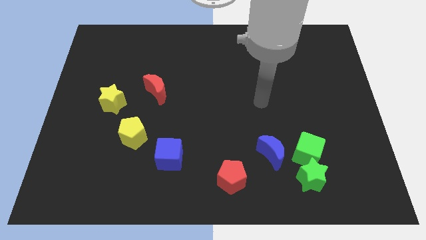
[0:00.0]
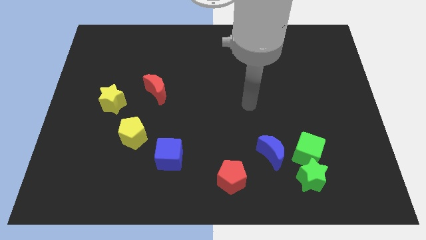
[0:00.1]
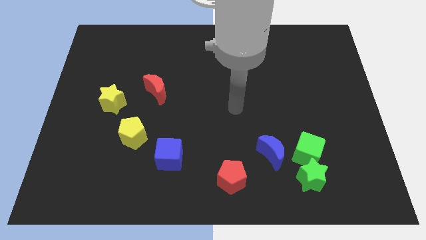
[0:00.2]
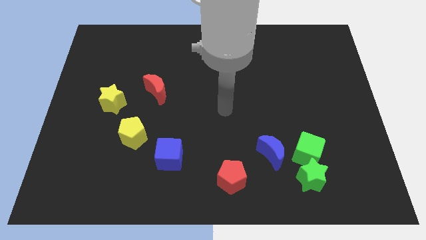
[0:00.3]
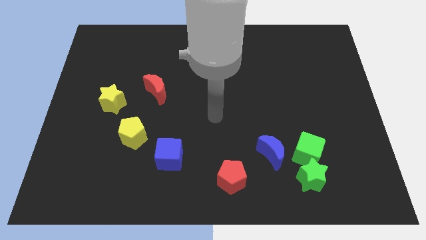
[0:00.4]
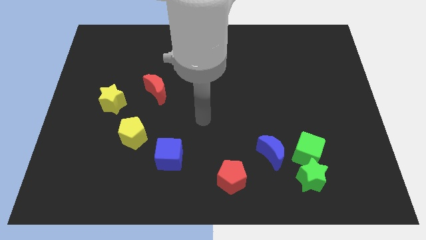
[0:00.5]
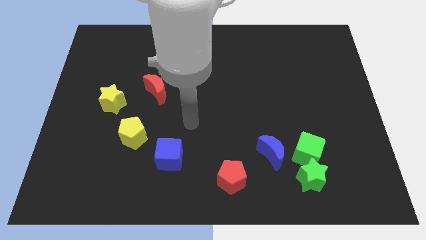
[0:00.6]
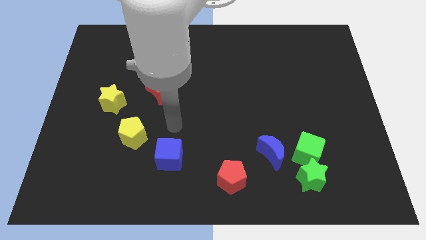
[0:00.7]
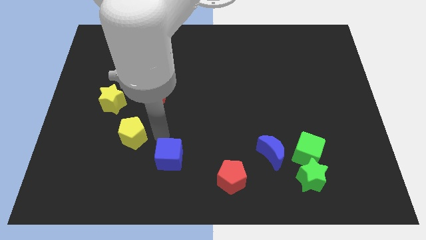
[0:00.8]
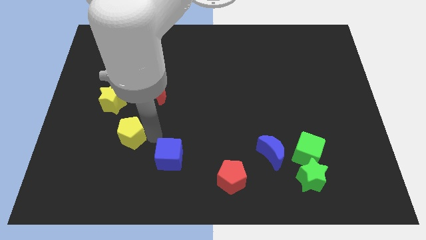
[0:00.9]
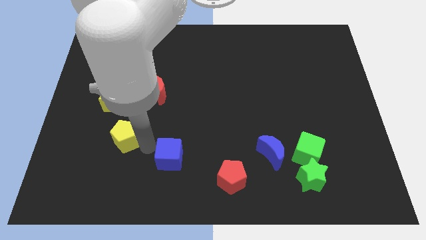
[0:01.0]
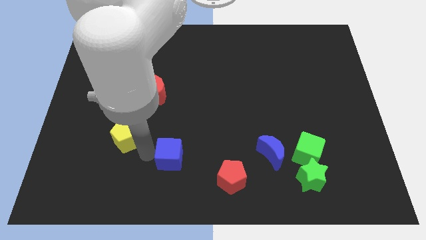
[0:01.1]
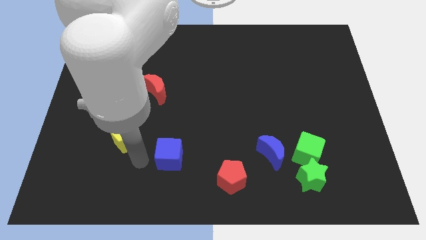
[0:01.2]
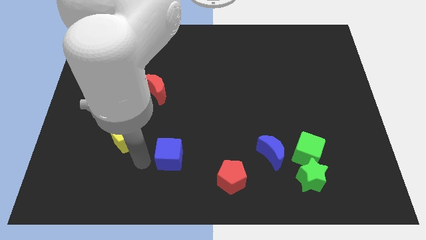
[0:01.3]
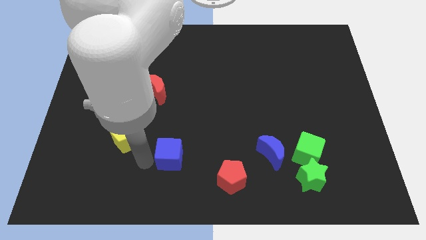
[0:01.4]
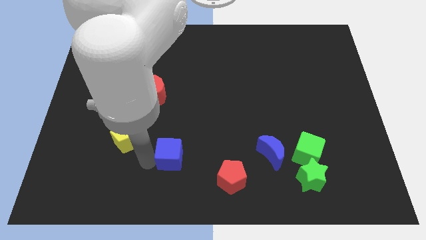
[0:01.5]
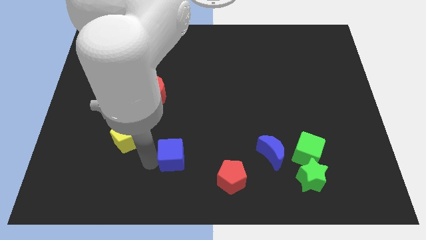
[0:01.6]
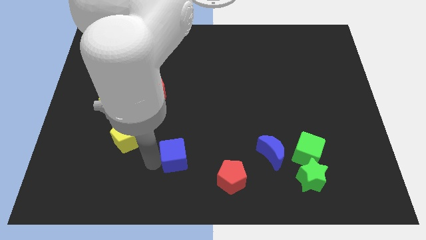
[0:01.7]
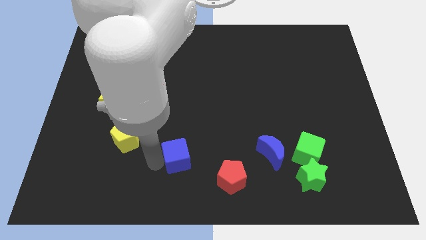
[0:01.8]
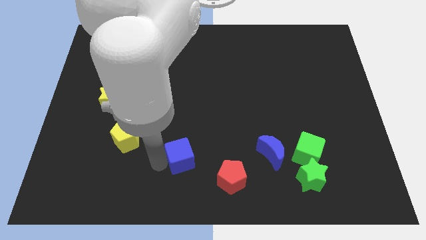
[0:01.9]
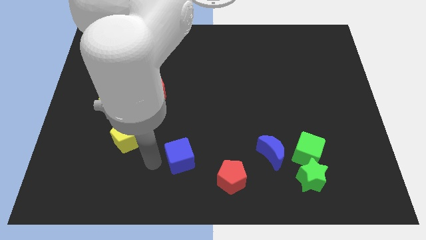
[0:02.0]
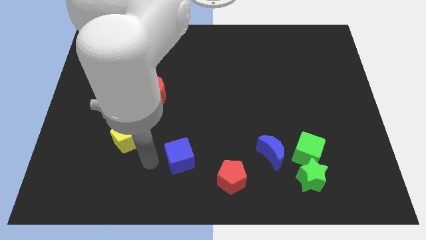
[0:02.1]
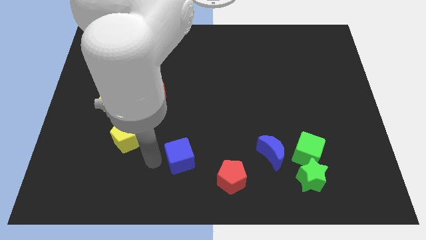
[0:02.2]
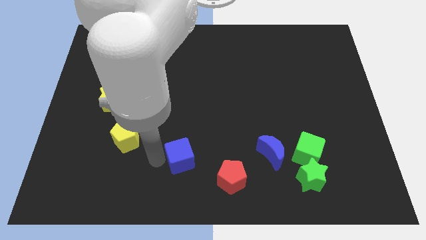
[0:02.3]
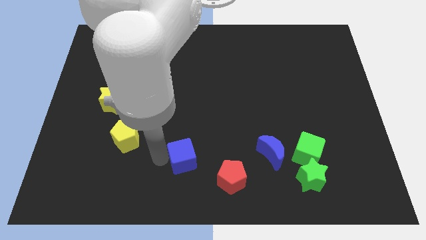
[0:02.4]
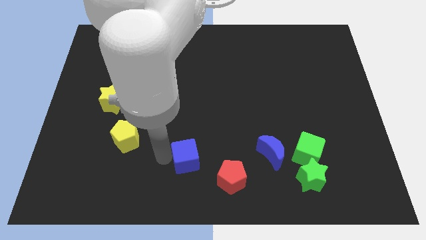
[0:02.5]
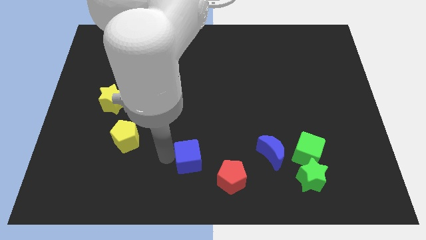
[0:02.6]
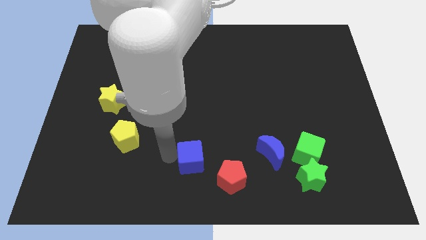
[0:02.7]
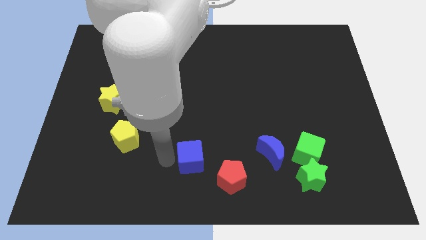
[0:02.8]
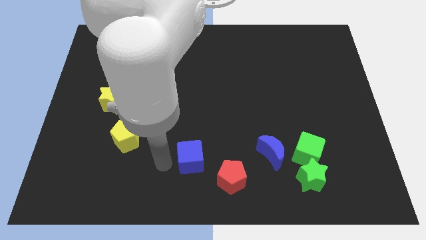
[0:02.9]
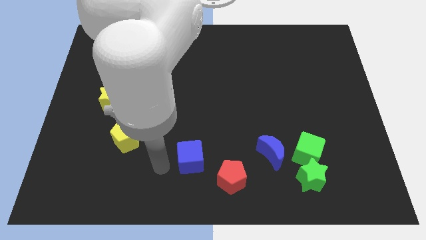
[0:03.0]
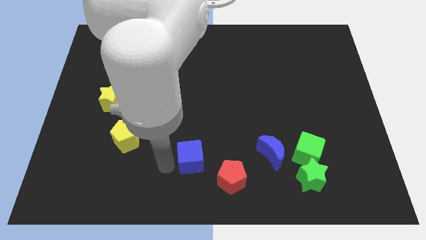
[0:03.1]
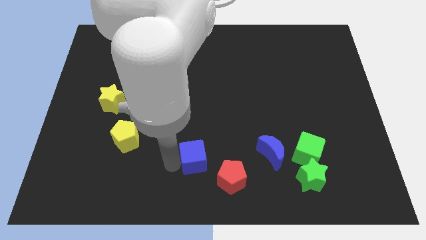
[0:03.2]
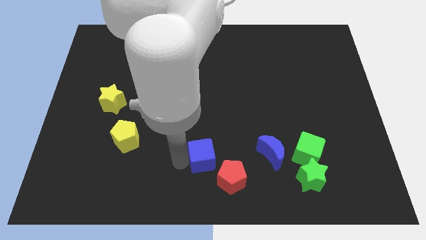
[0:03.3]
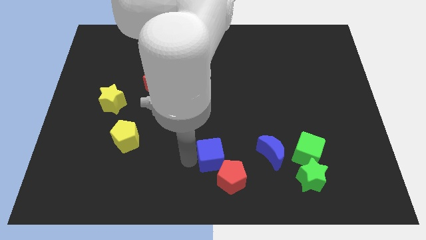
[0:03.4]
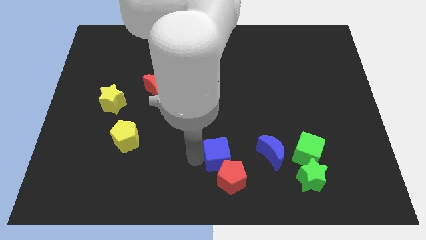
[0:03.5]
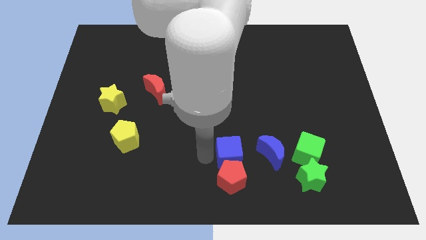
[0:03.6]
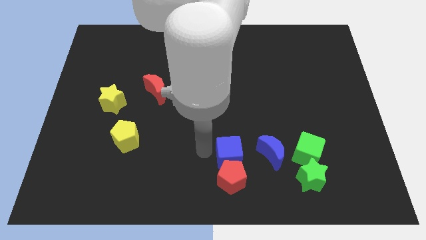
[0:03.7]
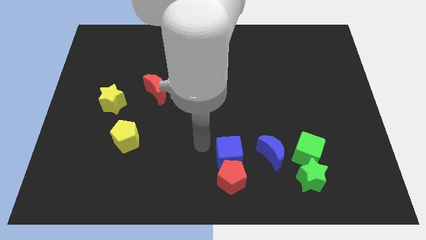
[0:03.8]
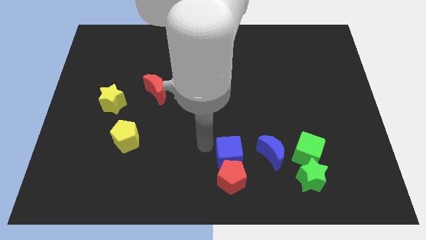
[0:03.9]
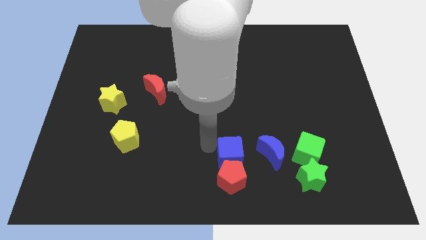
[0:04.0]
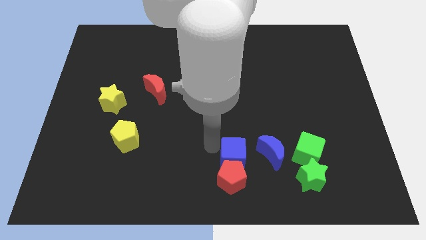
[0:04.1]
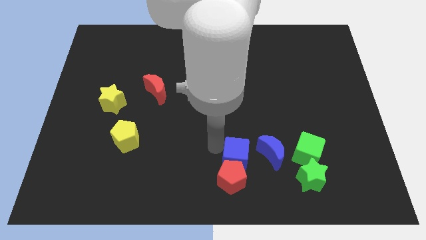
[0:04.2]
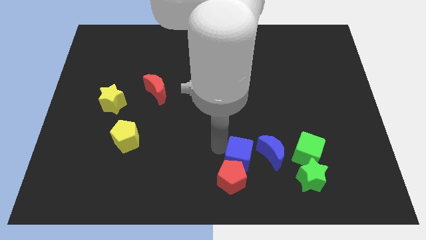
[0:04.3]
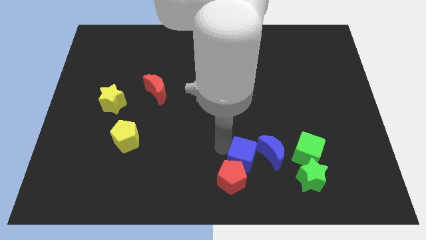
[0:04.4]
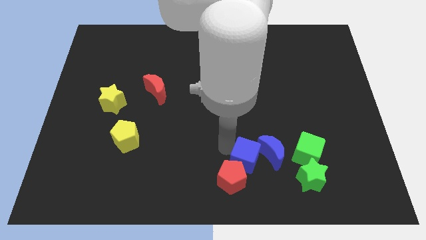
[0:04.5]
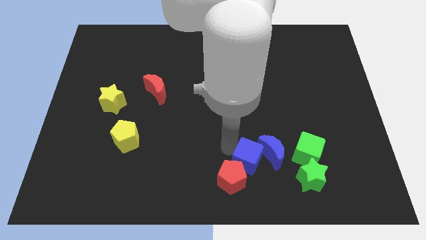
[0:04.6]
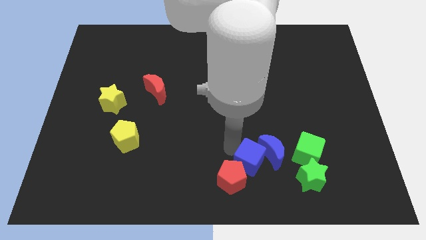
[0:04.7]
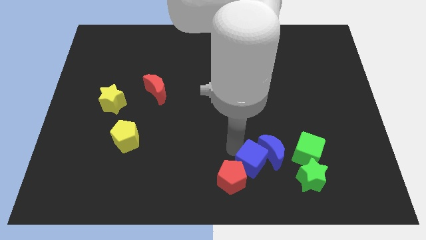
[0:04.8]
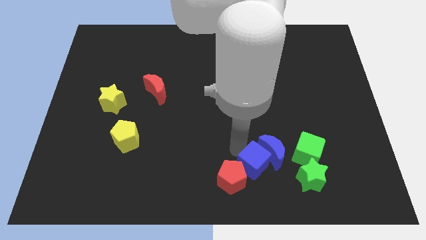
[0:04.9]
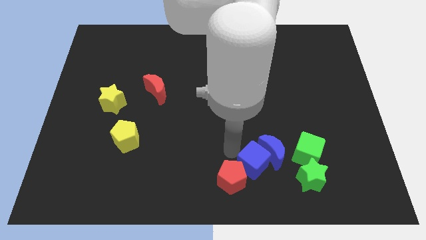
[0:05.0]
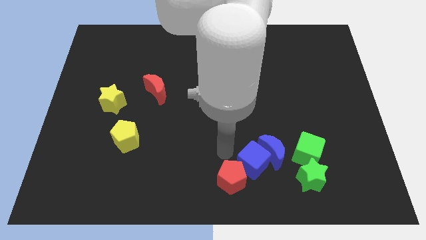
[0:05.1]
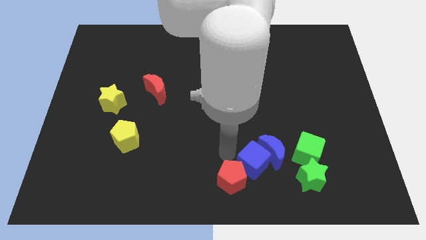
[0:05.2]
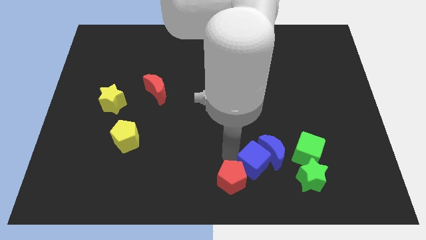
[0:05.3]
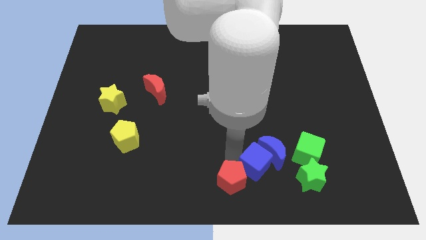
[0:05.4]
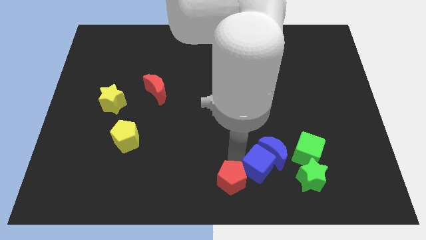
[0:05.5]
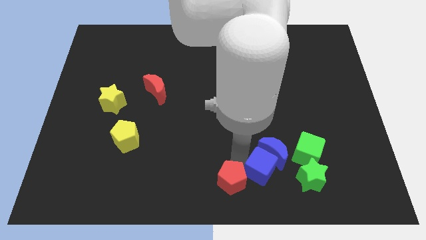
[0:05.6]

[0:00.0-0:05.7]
move the blue cube to the bottom left of the green cube

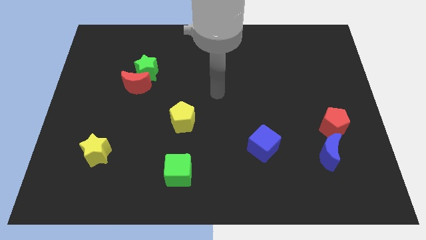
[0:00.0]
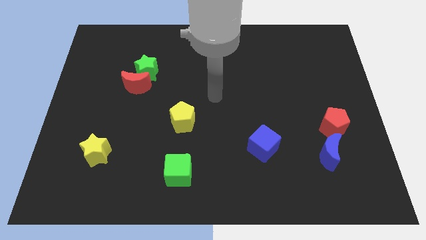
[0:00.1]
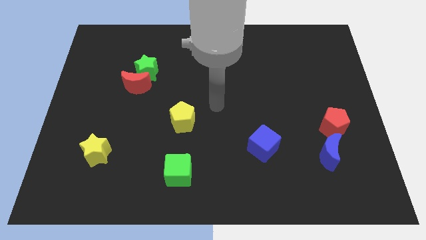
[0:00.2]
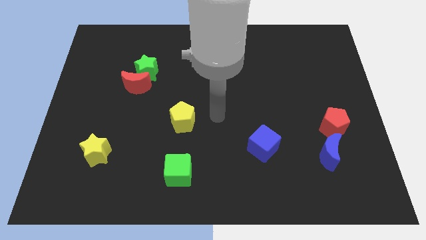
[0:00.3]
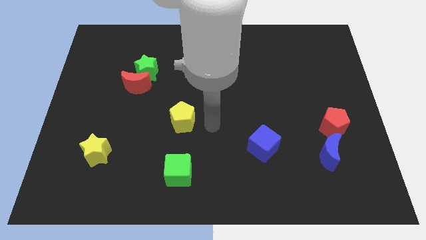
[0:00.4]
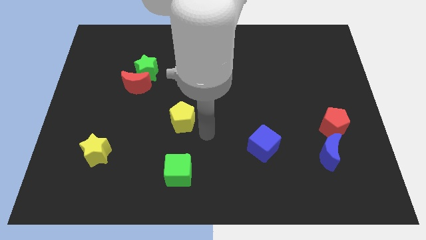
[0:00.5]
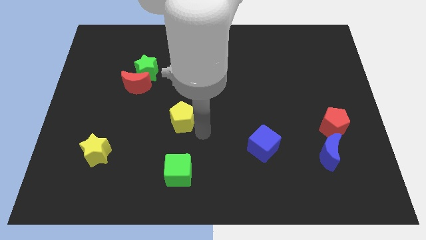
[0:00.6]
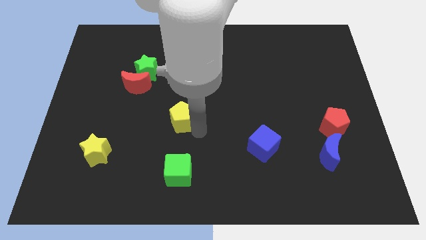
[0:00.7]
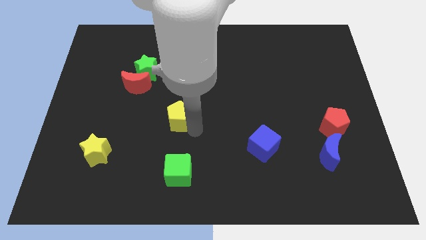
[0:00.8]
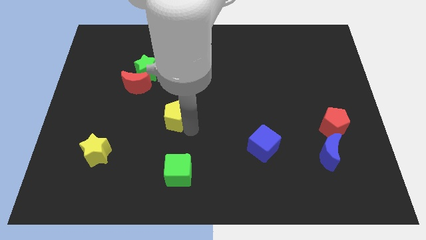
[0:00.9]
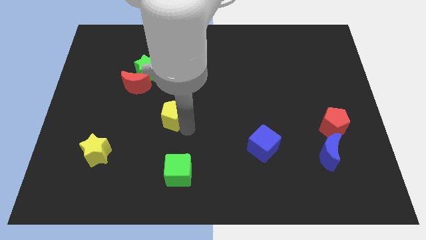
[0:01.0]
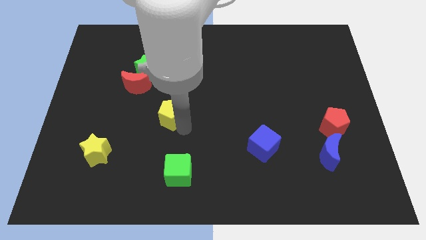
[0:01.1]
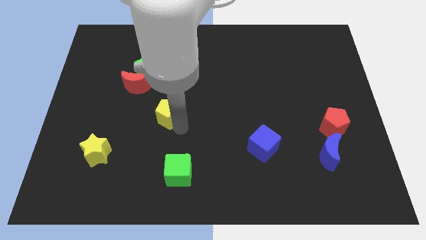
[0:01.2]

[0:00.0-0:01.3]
put the yellow pentagon to the bottom right of the red moon
